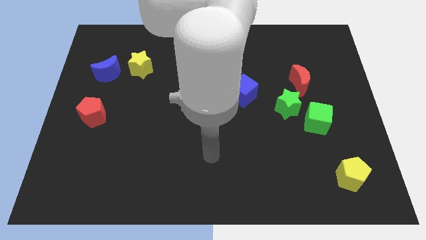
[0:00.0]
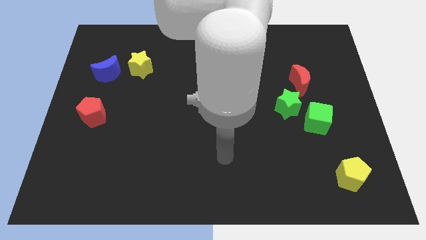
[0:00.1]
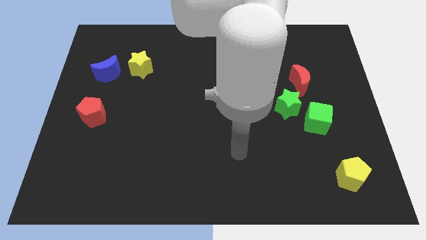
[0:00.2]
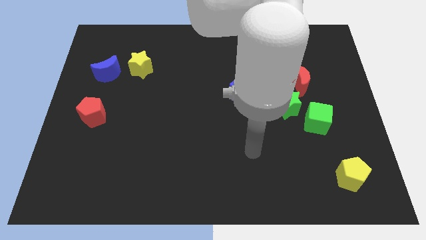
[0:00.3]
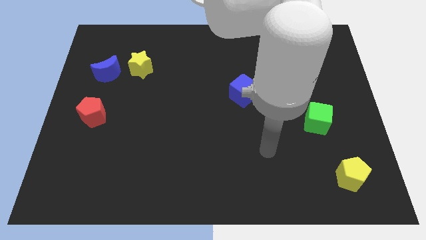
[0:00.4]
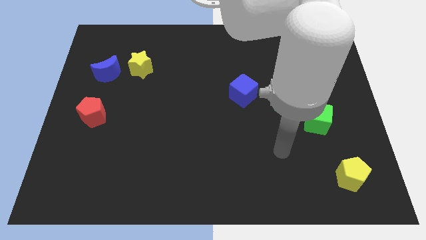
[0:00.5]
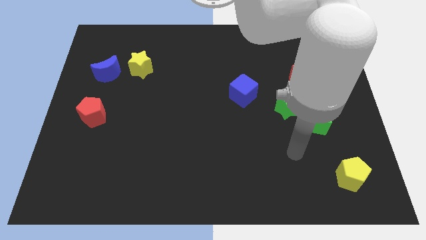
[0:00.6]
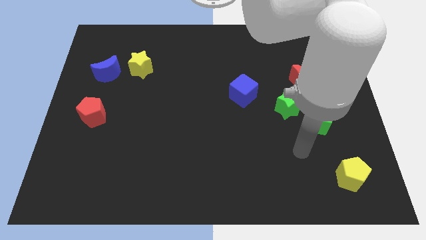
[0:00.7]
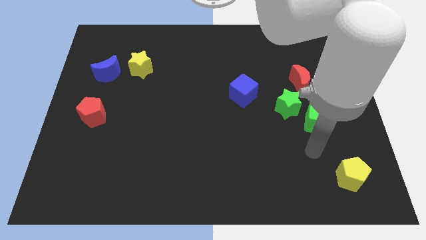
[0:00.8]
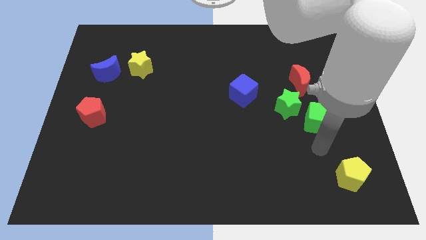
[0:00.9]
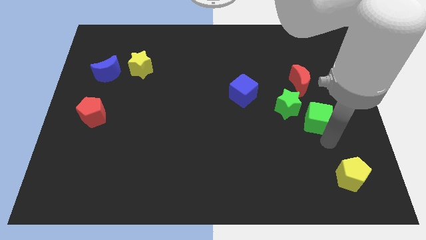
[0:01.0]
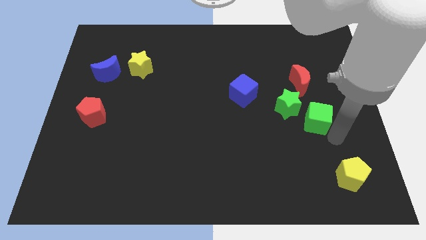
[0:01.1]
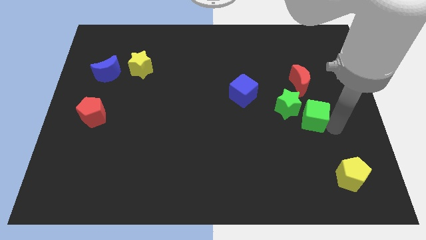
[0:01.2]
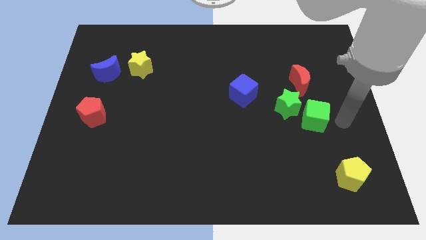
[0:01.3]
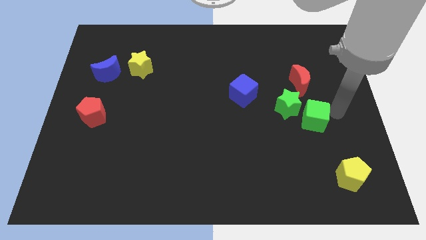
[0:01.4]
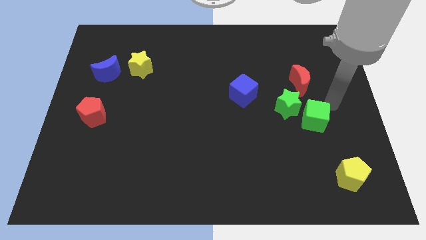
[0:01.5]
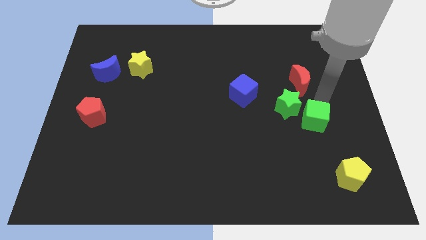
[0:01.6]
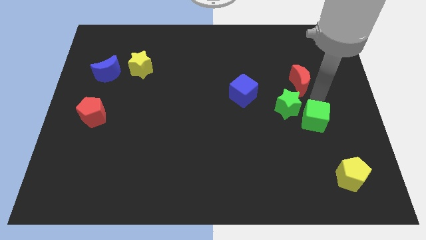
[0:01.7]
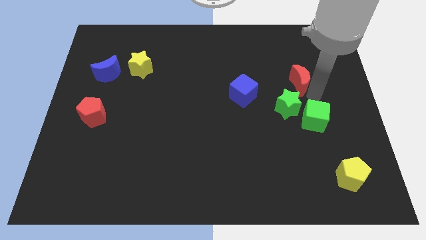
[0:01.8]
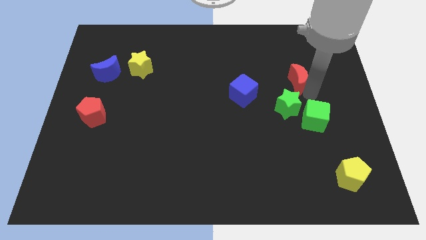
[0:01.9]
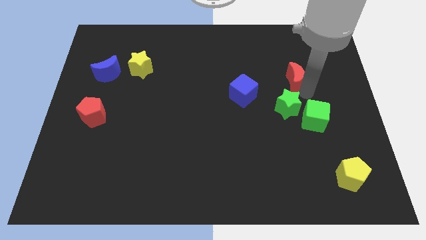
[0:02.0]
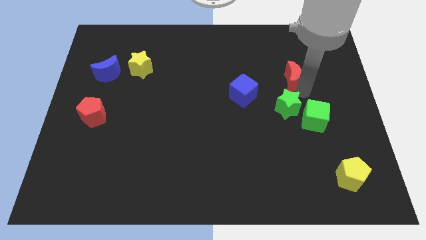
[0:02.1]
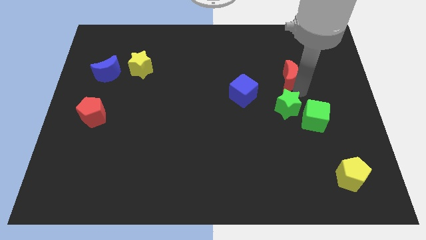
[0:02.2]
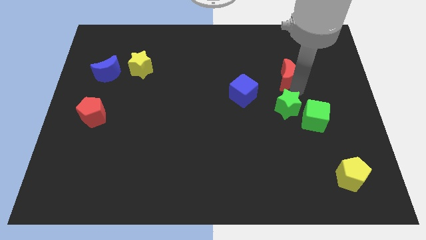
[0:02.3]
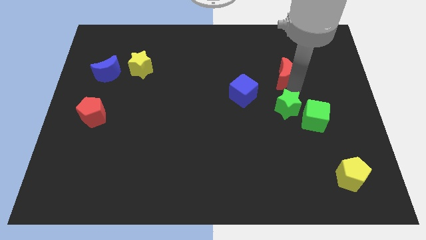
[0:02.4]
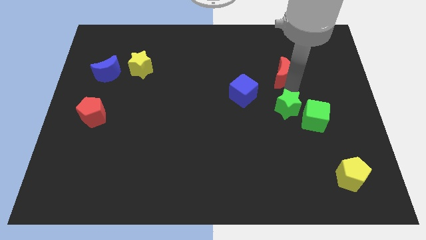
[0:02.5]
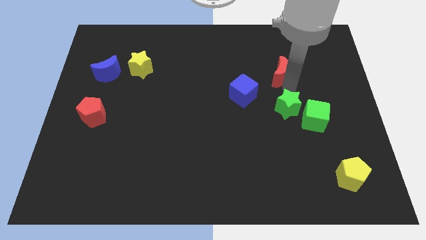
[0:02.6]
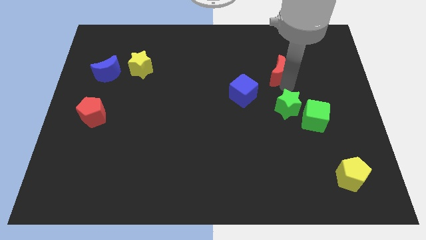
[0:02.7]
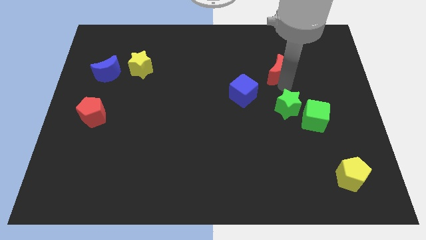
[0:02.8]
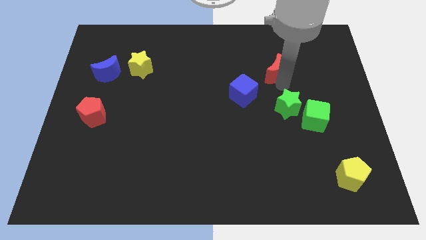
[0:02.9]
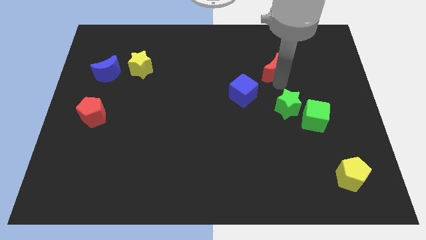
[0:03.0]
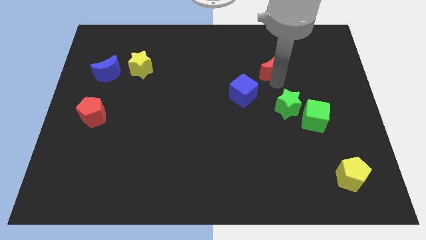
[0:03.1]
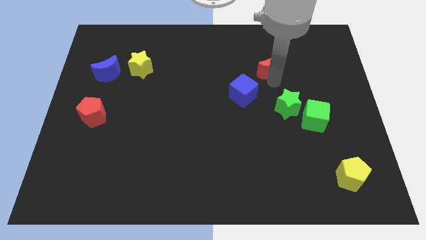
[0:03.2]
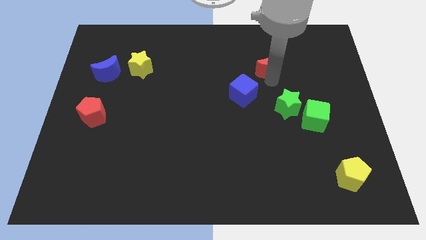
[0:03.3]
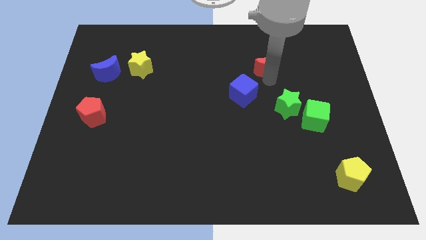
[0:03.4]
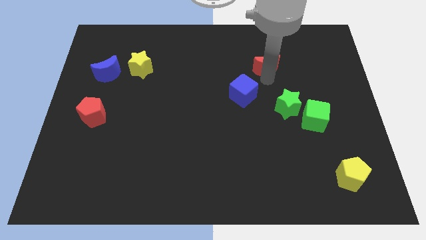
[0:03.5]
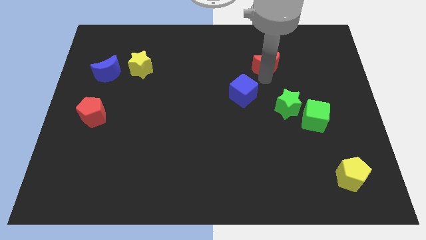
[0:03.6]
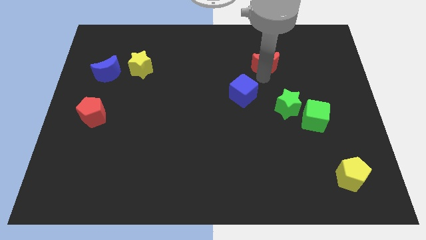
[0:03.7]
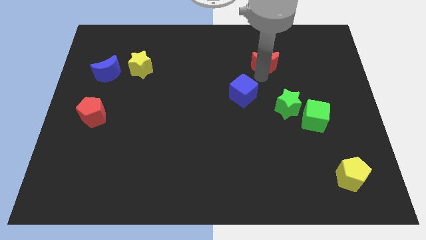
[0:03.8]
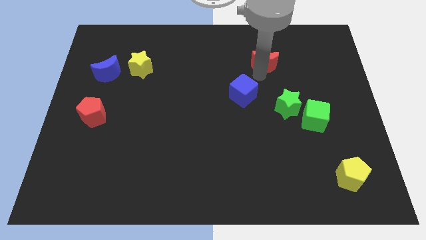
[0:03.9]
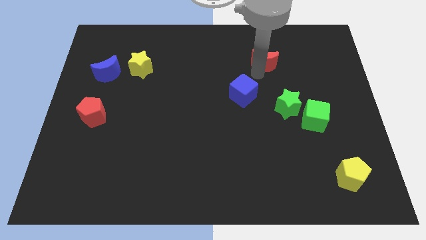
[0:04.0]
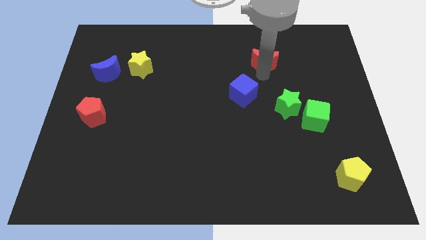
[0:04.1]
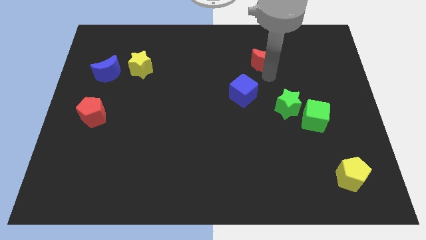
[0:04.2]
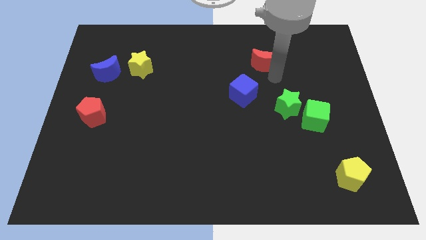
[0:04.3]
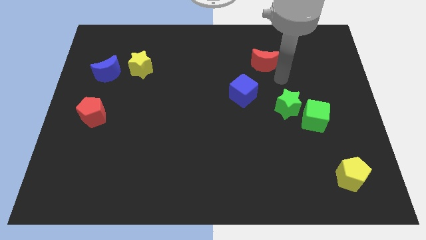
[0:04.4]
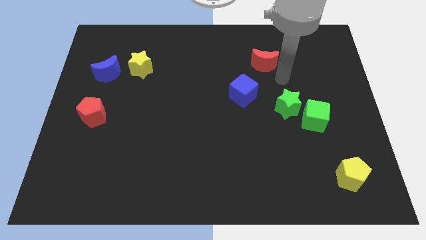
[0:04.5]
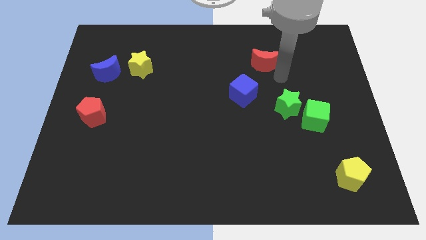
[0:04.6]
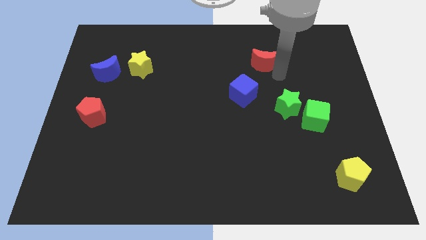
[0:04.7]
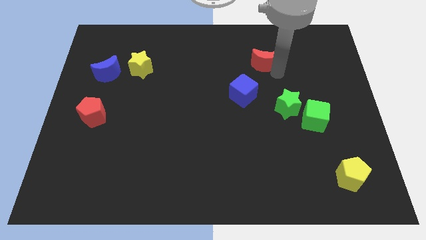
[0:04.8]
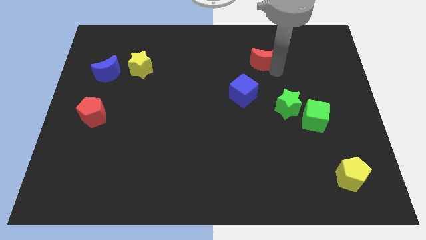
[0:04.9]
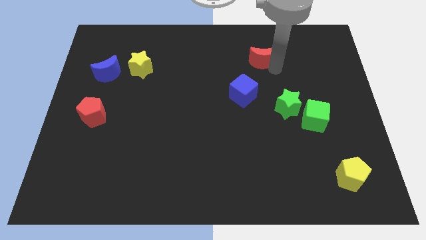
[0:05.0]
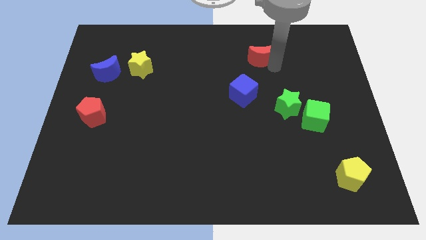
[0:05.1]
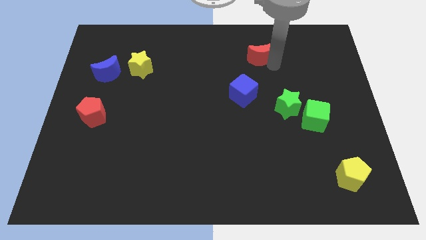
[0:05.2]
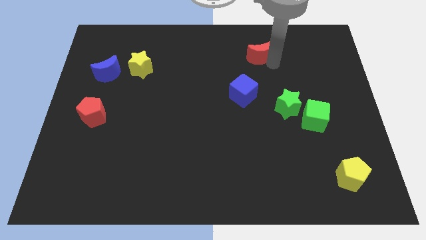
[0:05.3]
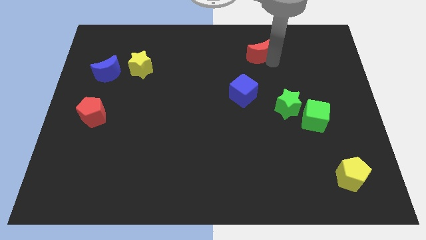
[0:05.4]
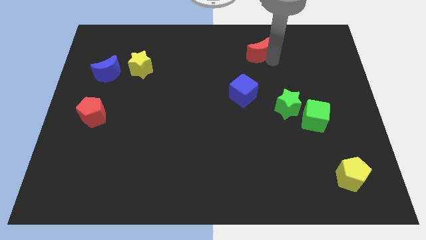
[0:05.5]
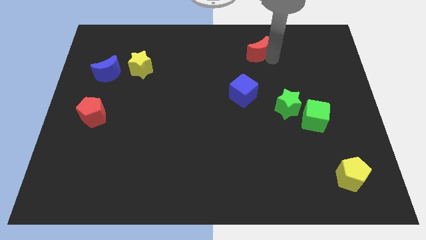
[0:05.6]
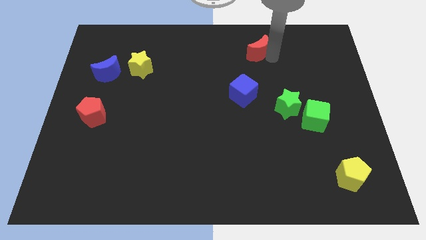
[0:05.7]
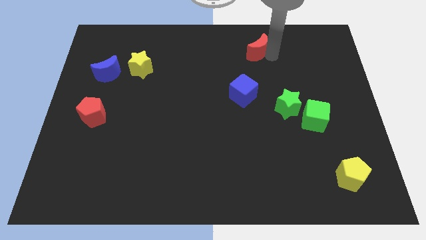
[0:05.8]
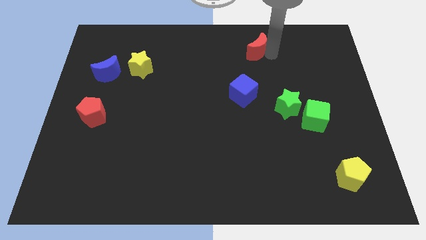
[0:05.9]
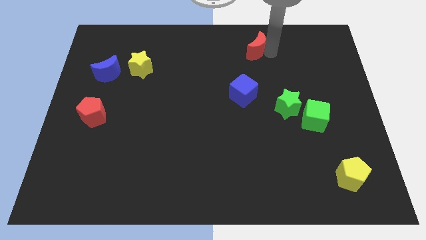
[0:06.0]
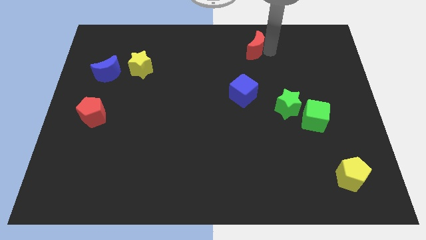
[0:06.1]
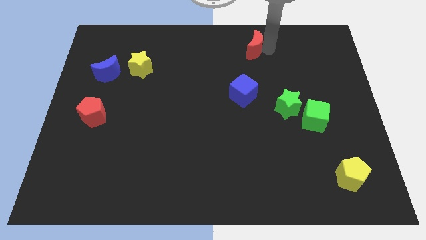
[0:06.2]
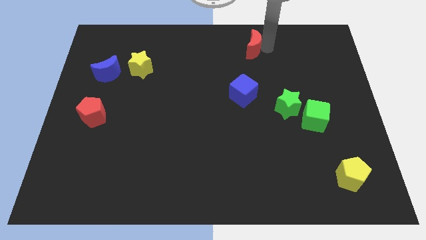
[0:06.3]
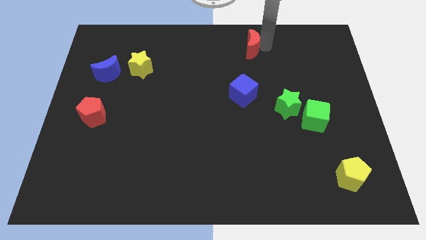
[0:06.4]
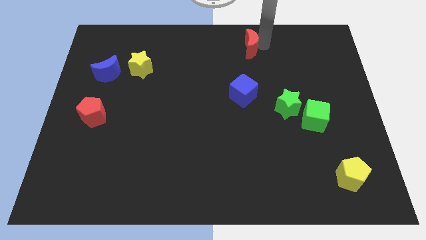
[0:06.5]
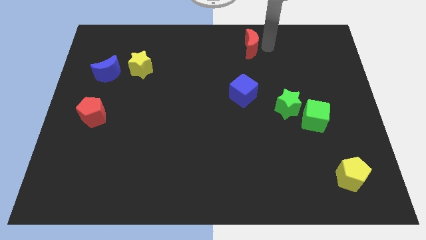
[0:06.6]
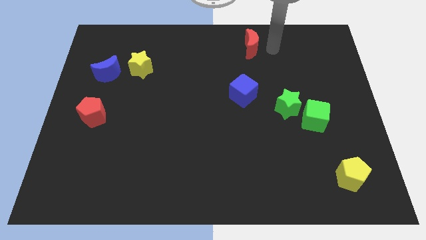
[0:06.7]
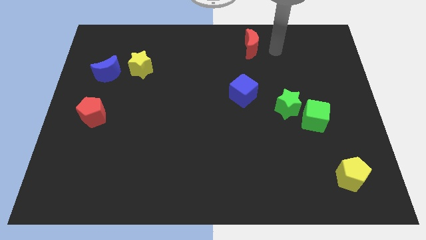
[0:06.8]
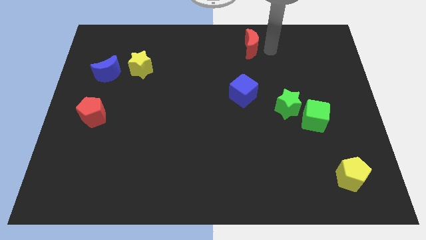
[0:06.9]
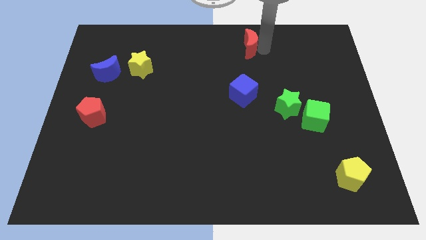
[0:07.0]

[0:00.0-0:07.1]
put the red moon to the top

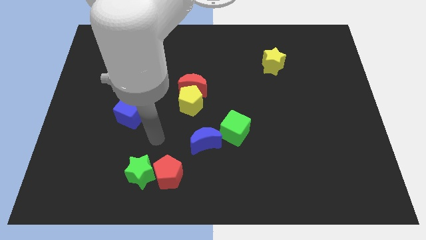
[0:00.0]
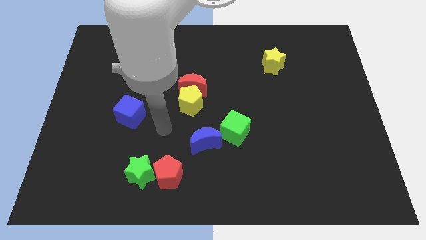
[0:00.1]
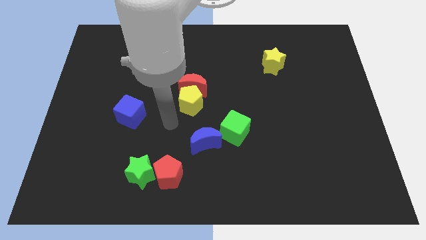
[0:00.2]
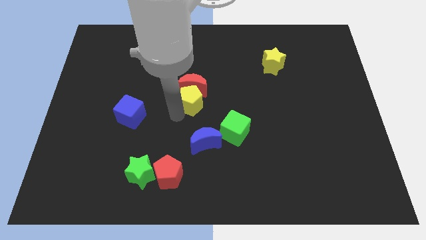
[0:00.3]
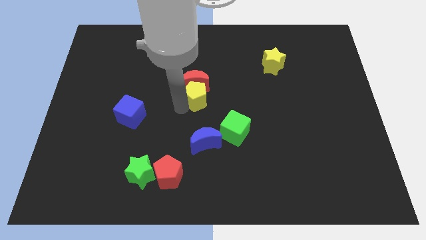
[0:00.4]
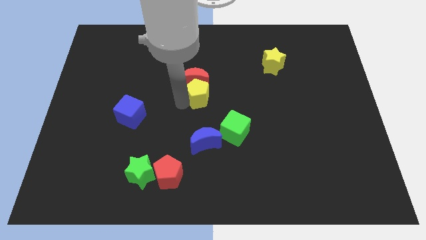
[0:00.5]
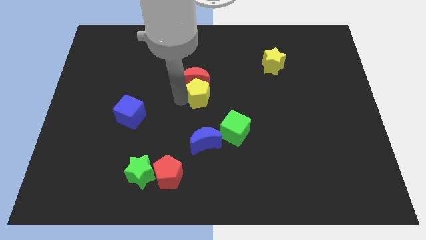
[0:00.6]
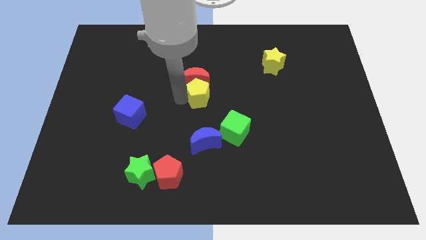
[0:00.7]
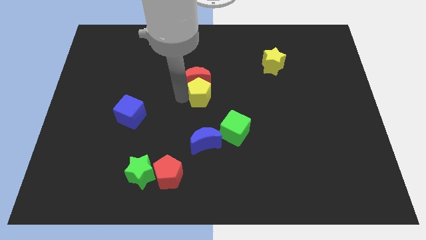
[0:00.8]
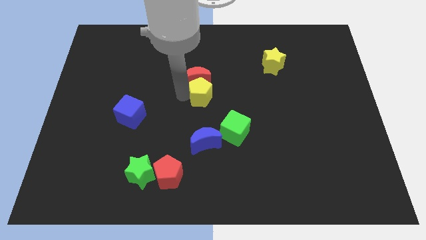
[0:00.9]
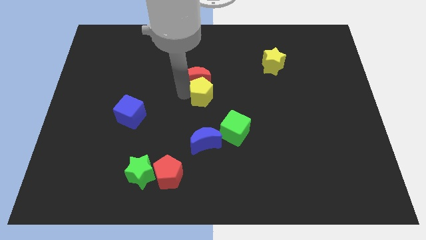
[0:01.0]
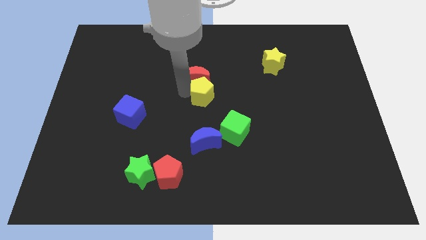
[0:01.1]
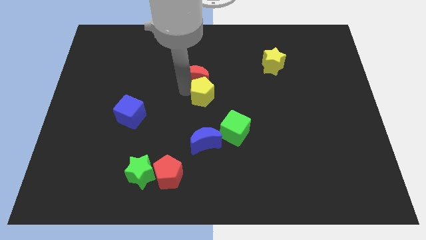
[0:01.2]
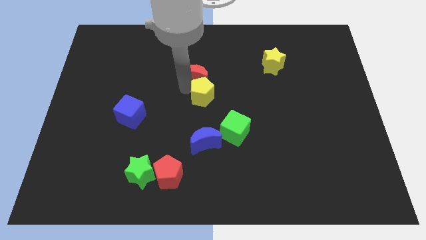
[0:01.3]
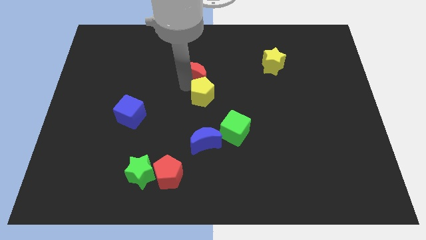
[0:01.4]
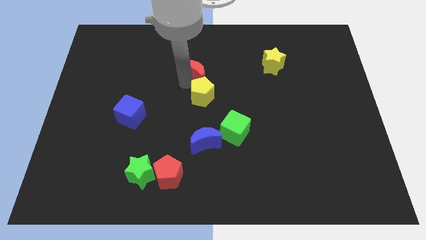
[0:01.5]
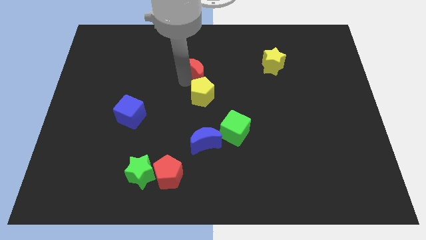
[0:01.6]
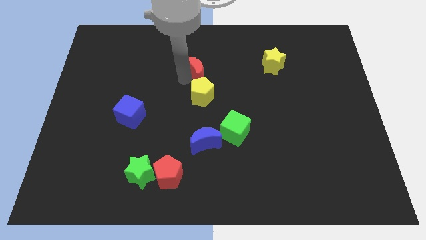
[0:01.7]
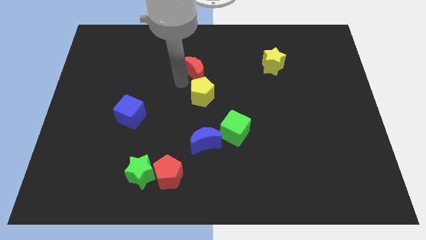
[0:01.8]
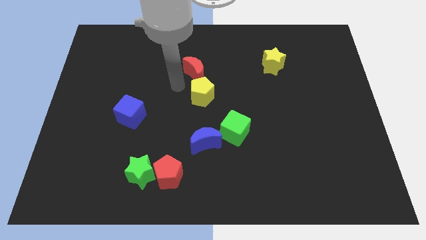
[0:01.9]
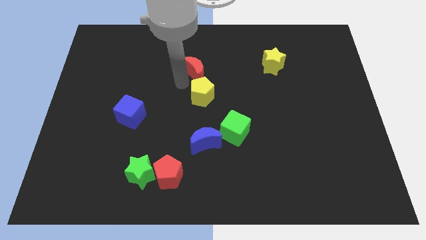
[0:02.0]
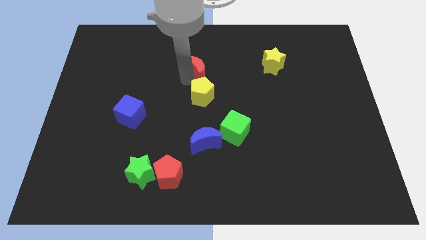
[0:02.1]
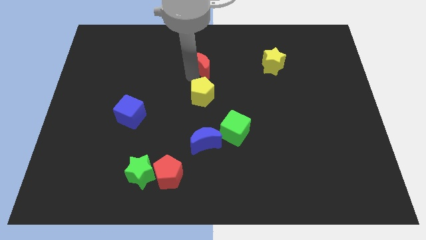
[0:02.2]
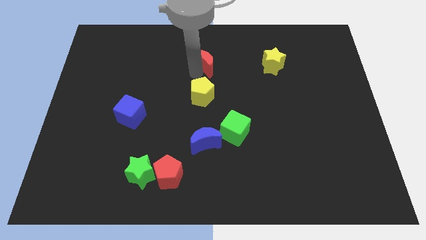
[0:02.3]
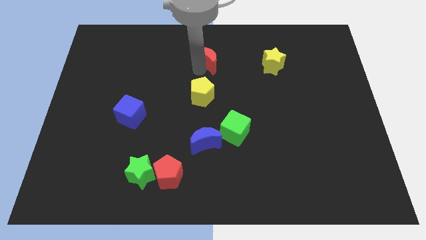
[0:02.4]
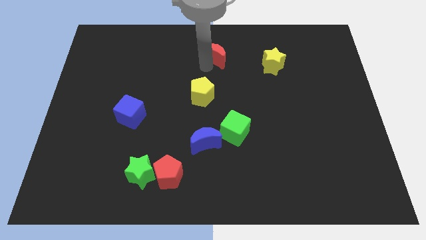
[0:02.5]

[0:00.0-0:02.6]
move the red moon to the top
